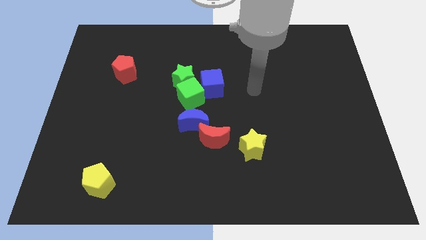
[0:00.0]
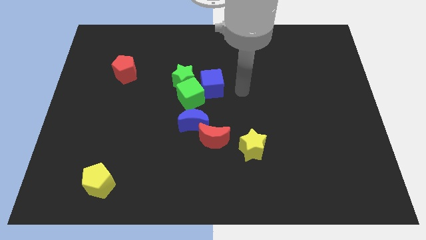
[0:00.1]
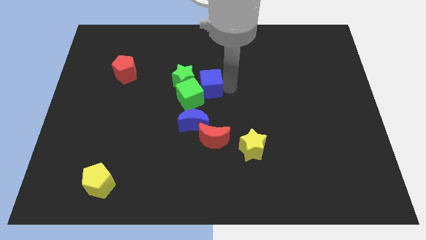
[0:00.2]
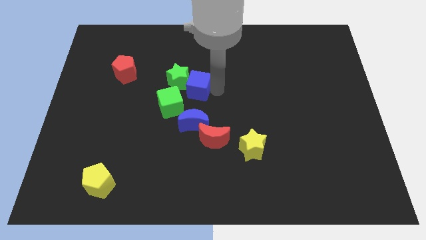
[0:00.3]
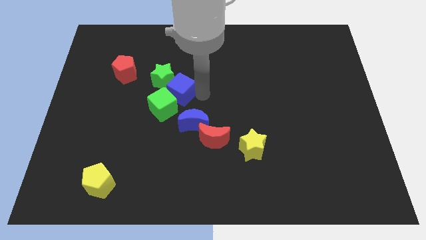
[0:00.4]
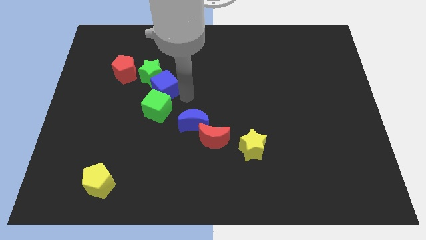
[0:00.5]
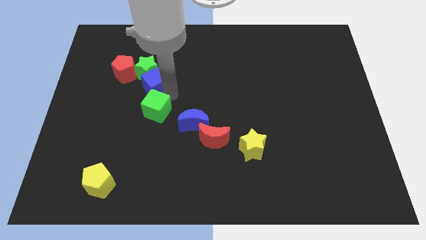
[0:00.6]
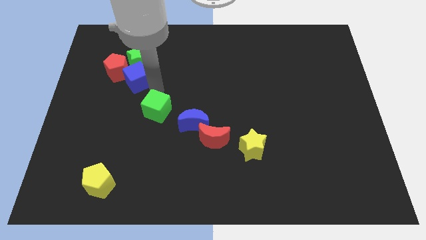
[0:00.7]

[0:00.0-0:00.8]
separate the green star from the green cube and blue cube

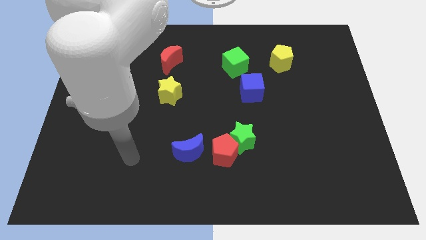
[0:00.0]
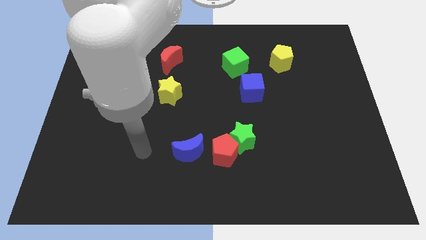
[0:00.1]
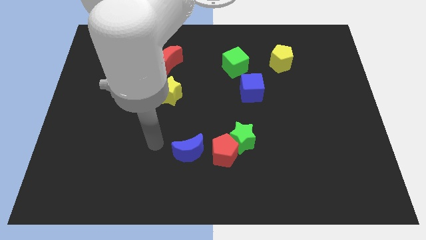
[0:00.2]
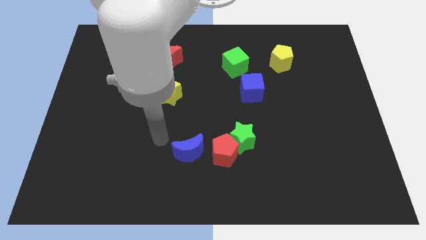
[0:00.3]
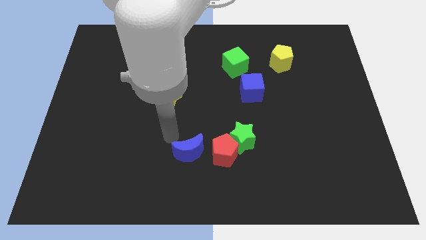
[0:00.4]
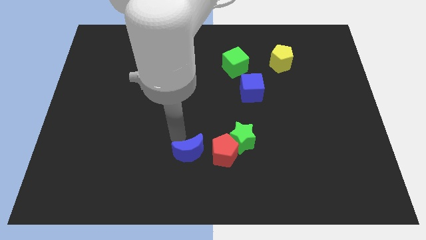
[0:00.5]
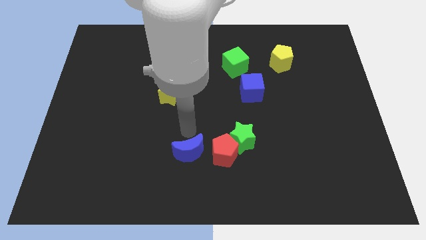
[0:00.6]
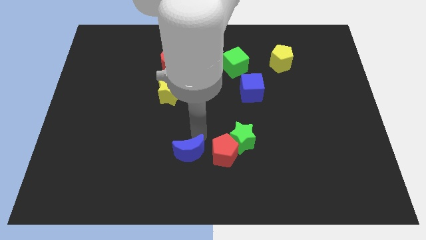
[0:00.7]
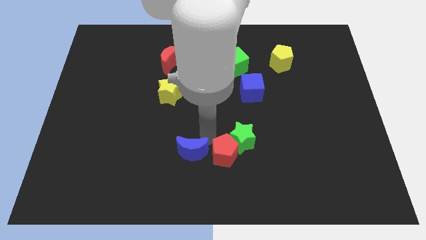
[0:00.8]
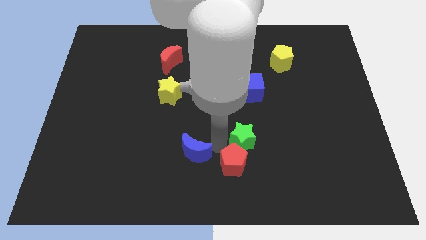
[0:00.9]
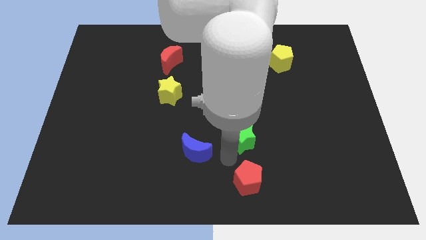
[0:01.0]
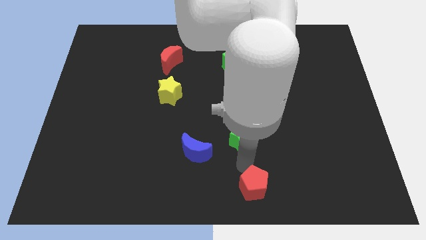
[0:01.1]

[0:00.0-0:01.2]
separate the green star from the red pentagon

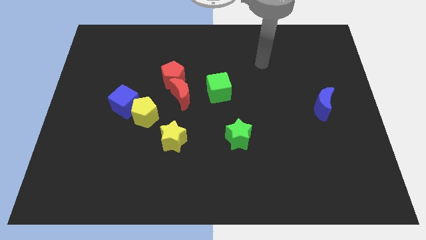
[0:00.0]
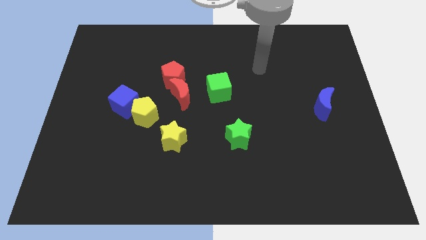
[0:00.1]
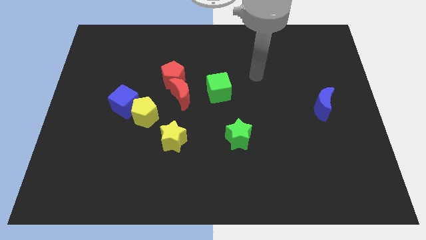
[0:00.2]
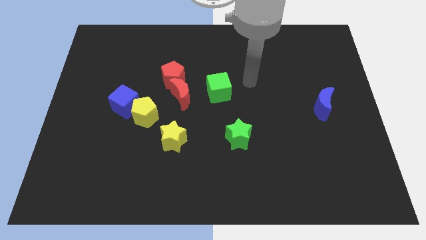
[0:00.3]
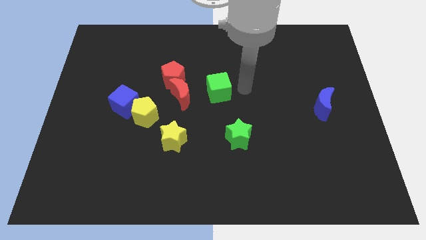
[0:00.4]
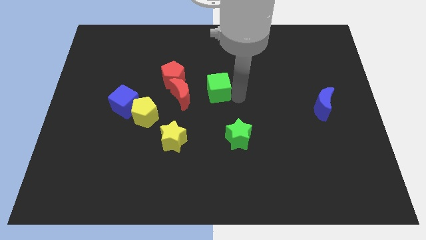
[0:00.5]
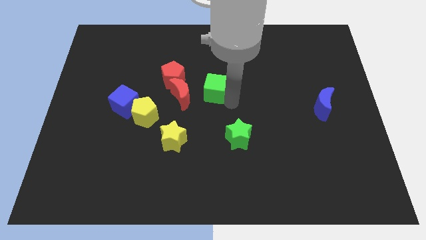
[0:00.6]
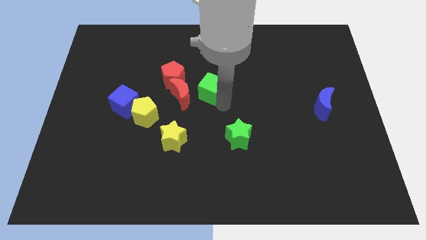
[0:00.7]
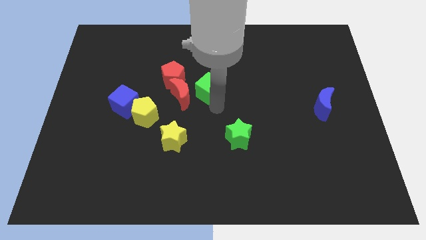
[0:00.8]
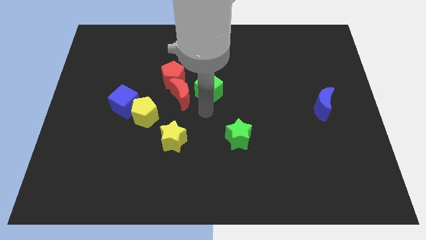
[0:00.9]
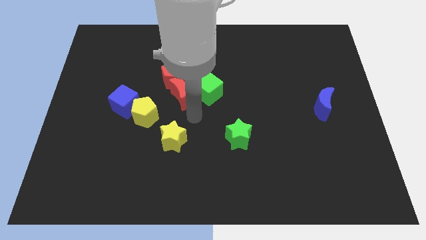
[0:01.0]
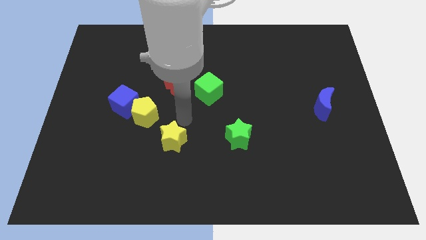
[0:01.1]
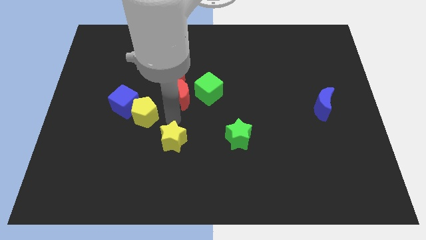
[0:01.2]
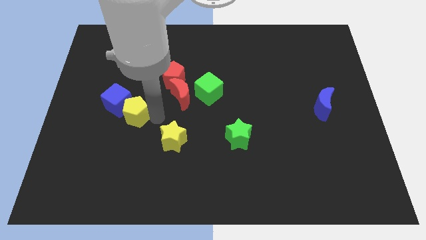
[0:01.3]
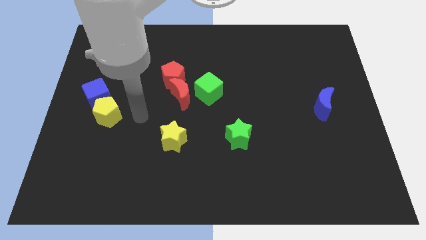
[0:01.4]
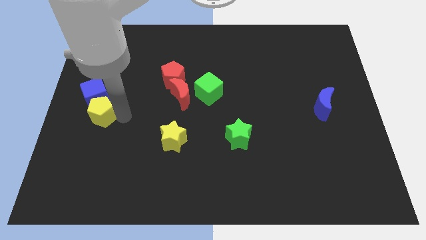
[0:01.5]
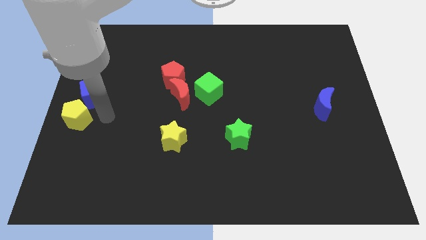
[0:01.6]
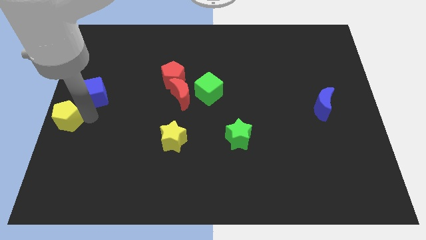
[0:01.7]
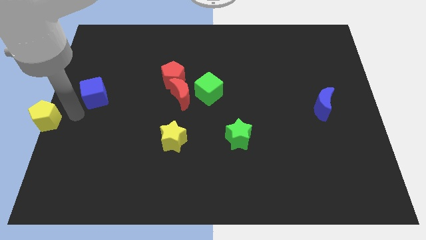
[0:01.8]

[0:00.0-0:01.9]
pull the blue cube apart from the yellow pentagon

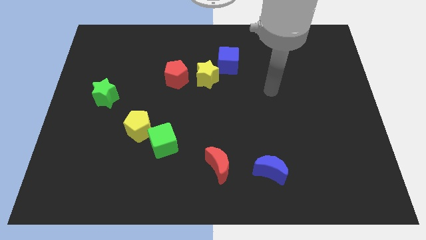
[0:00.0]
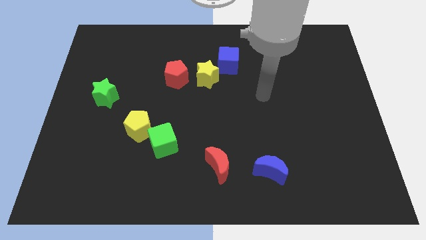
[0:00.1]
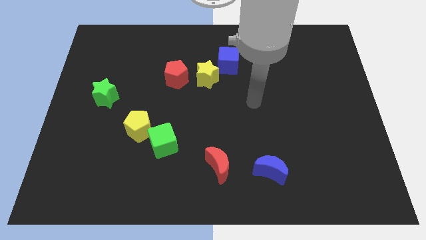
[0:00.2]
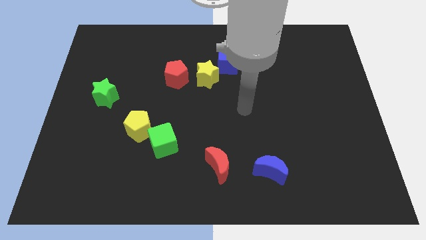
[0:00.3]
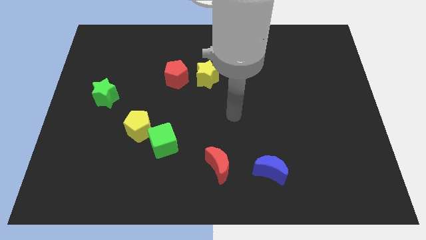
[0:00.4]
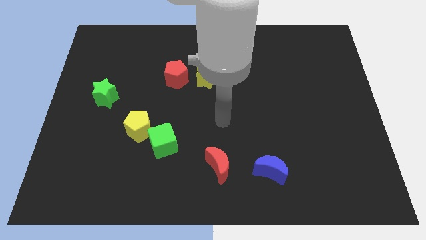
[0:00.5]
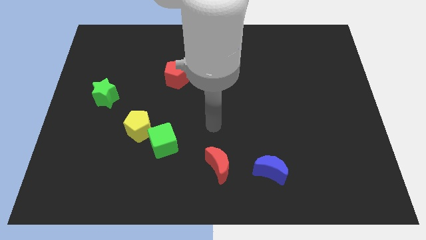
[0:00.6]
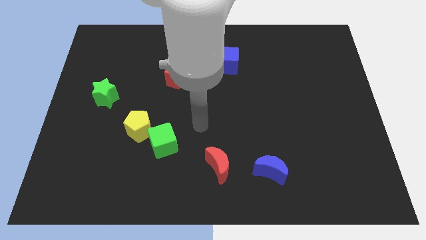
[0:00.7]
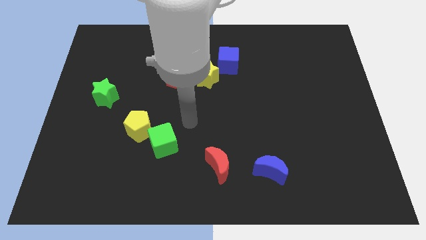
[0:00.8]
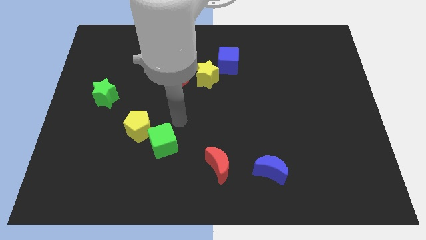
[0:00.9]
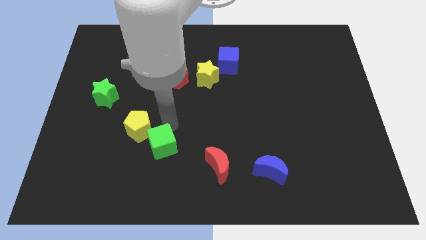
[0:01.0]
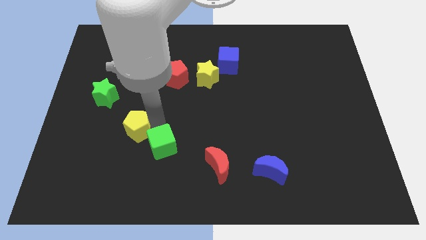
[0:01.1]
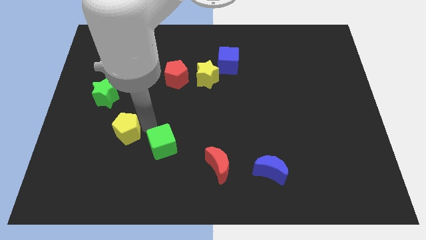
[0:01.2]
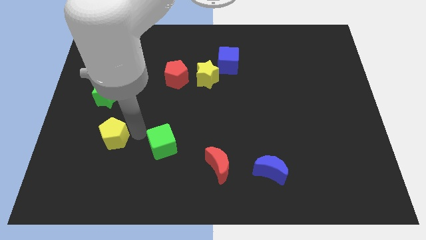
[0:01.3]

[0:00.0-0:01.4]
move the green cube away from the yellow pentagon

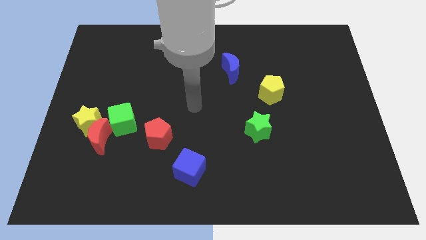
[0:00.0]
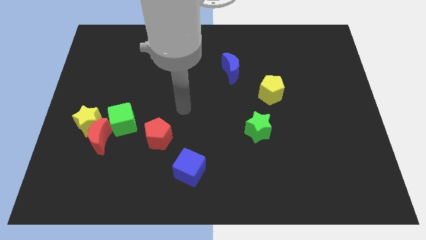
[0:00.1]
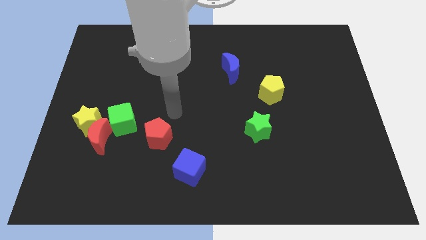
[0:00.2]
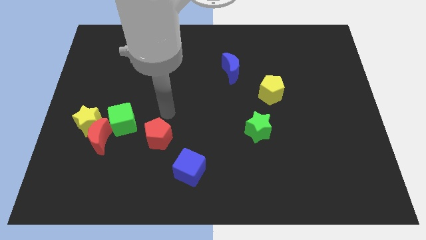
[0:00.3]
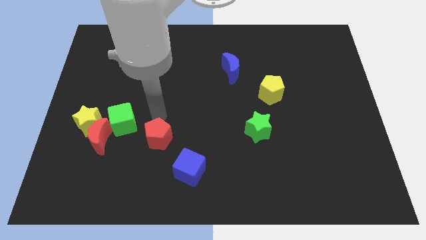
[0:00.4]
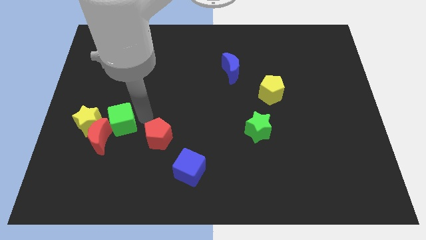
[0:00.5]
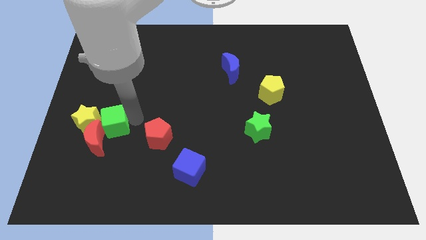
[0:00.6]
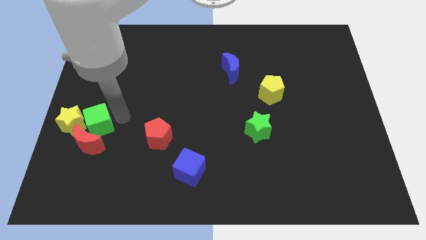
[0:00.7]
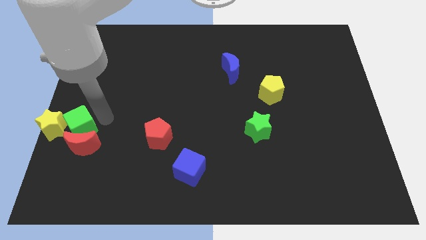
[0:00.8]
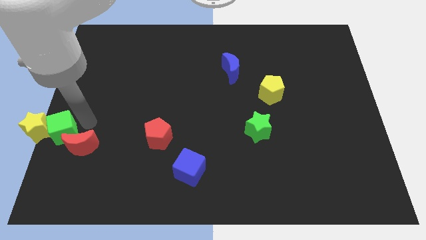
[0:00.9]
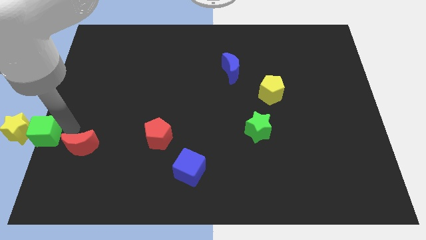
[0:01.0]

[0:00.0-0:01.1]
separate the red moon from the yellow star and green cube

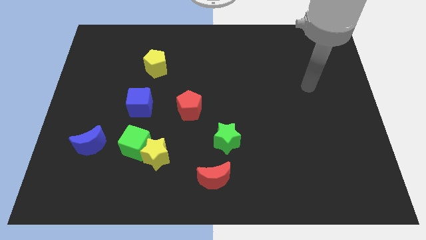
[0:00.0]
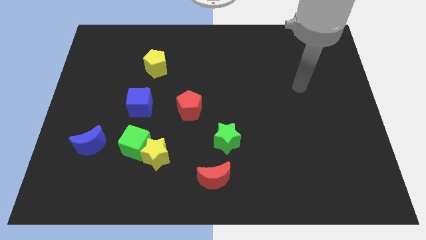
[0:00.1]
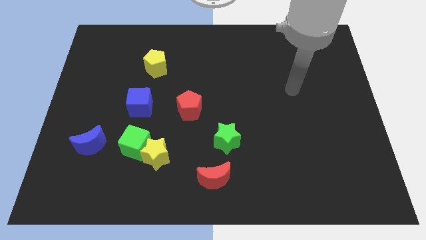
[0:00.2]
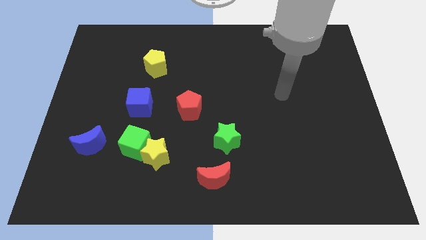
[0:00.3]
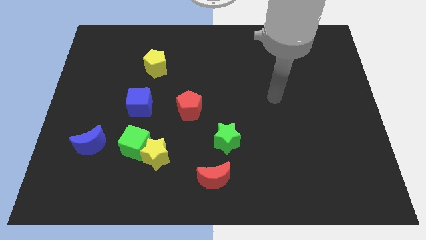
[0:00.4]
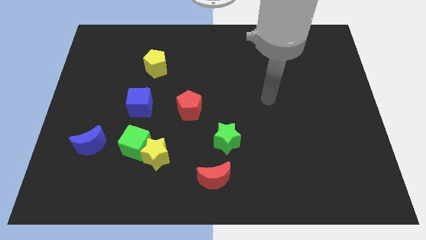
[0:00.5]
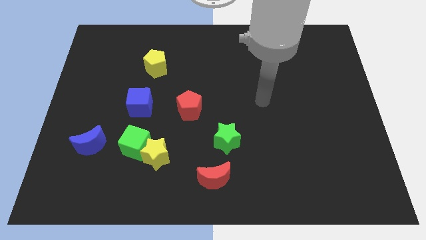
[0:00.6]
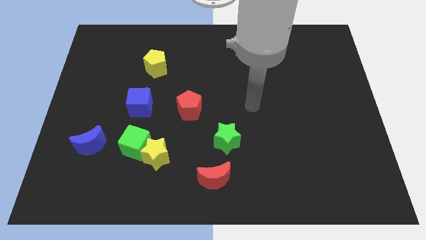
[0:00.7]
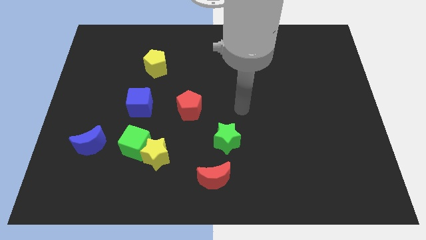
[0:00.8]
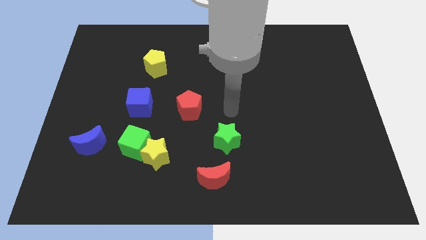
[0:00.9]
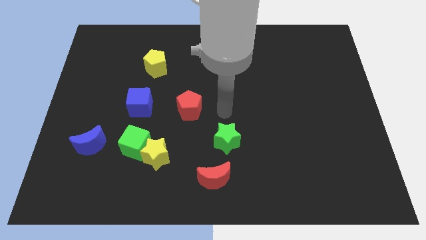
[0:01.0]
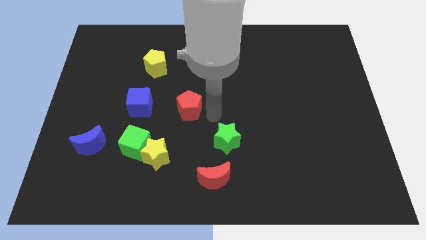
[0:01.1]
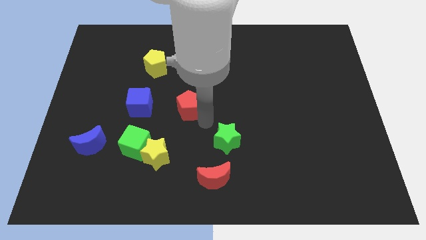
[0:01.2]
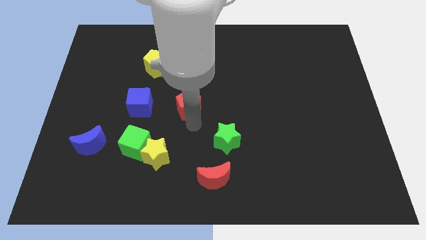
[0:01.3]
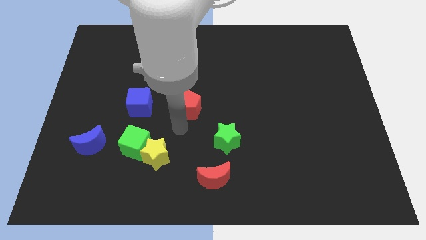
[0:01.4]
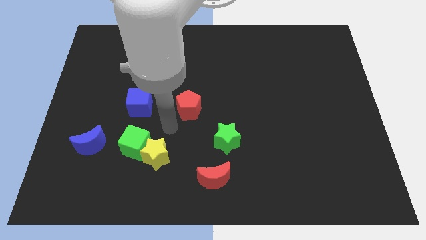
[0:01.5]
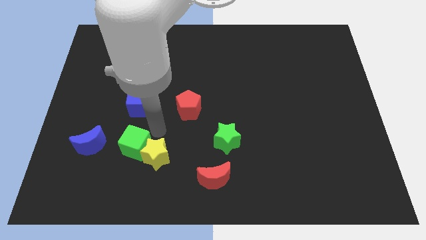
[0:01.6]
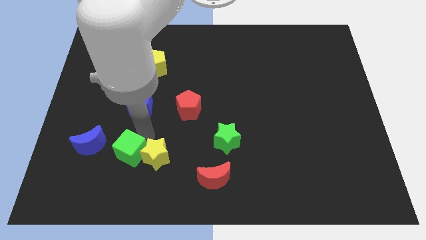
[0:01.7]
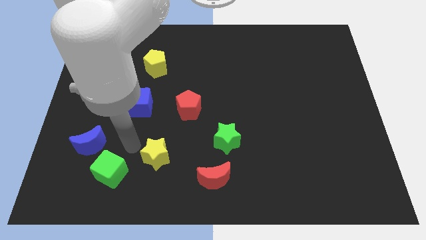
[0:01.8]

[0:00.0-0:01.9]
move the yellow star away from the green cube

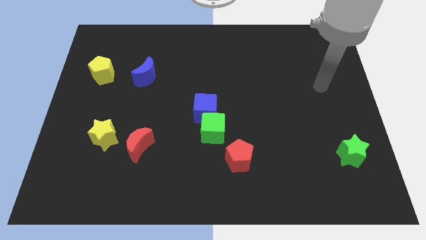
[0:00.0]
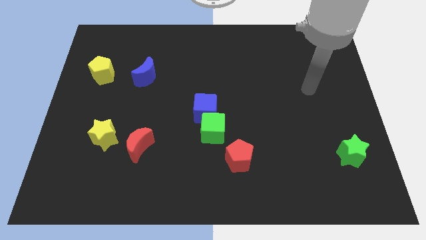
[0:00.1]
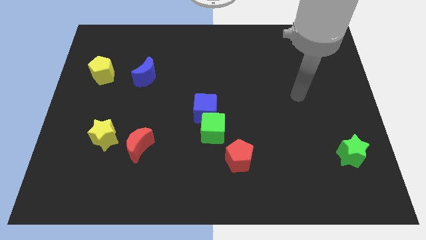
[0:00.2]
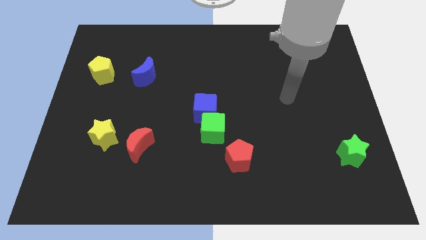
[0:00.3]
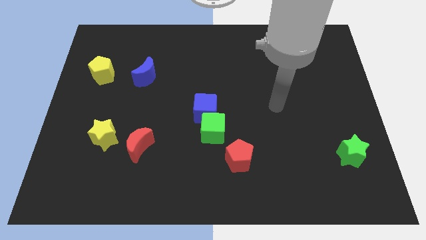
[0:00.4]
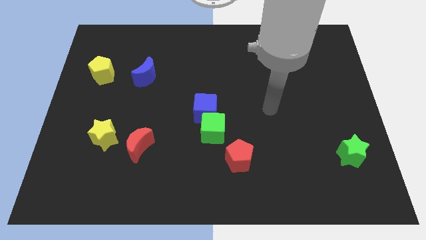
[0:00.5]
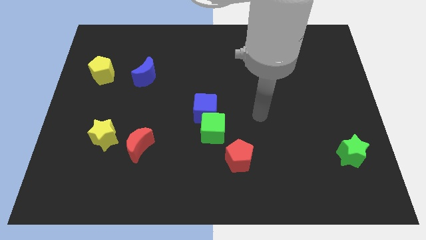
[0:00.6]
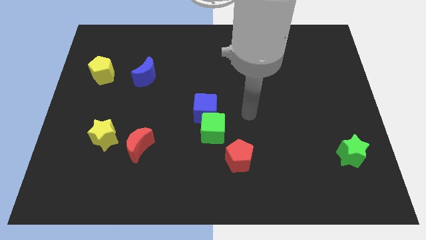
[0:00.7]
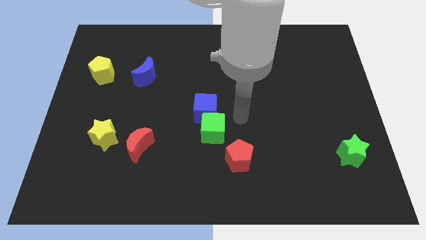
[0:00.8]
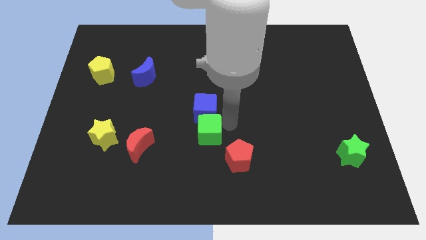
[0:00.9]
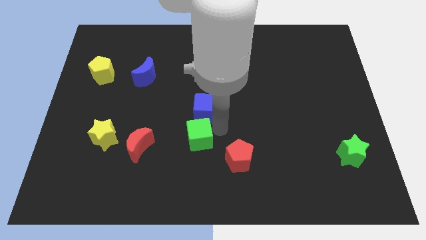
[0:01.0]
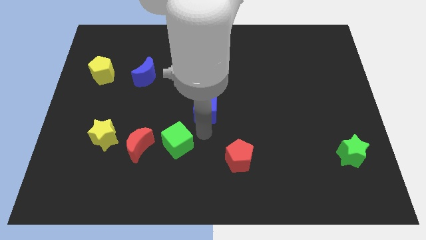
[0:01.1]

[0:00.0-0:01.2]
move the blue cube away from the green cube
